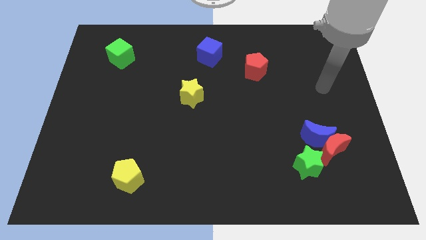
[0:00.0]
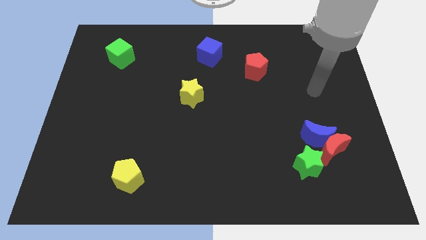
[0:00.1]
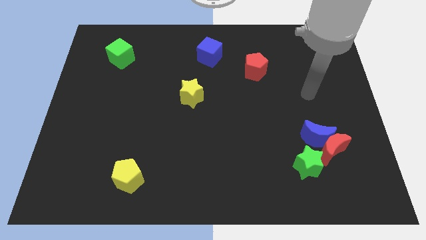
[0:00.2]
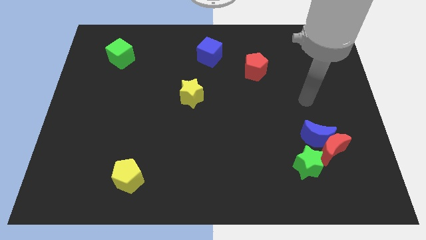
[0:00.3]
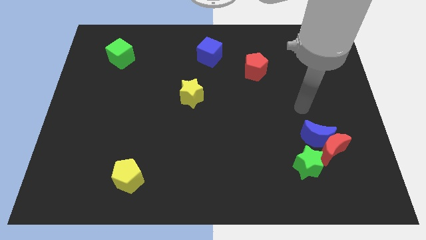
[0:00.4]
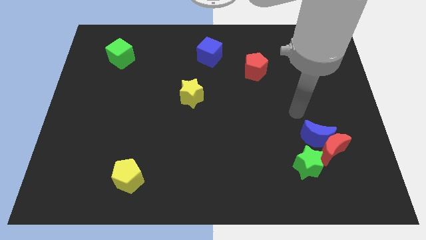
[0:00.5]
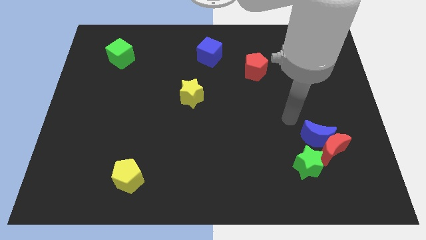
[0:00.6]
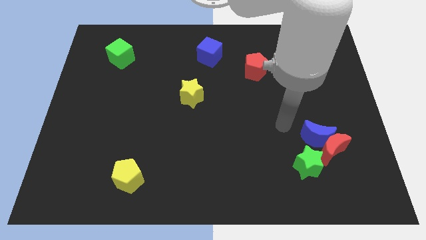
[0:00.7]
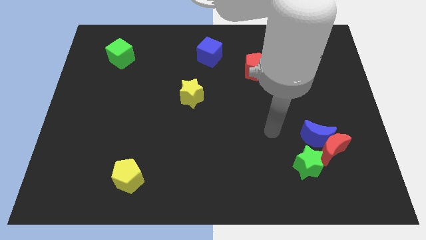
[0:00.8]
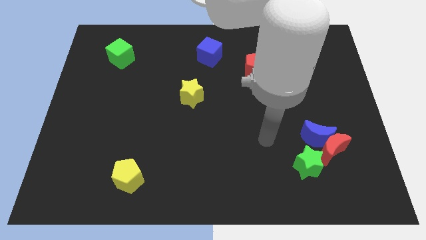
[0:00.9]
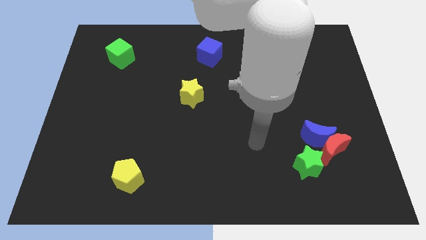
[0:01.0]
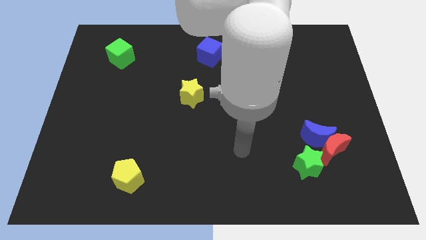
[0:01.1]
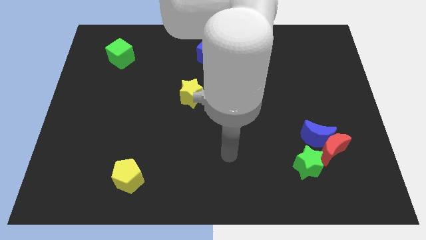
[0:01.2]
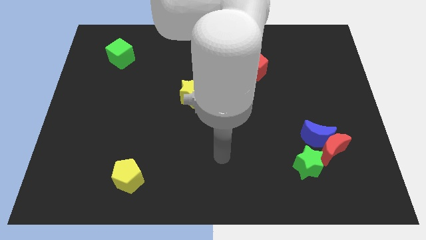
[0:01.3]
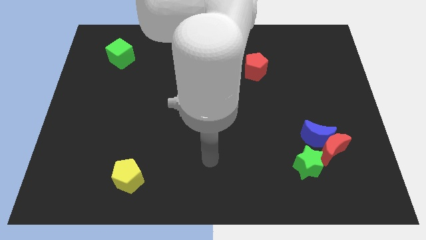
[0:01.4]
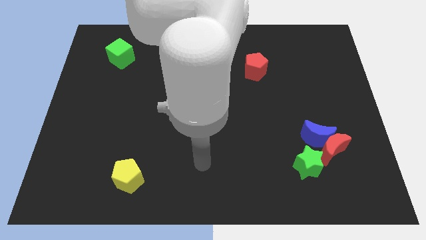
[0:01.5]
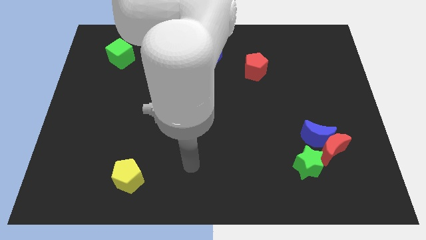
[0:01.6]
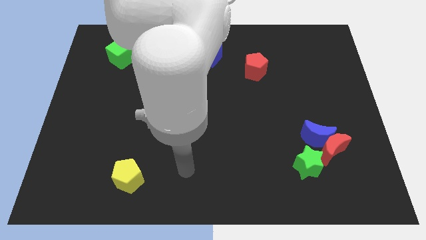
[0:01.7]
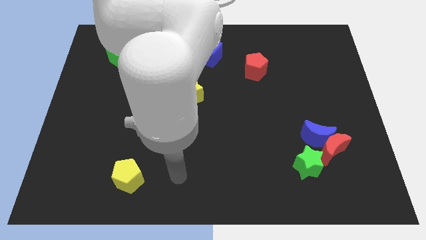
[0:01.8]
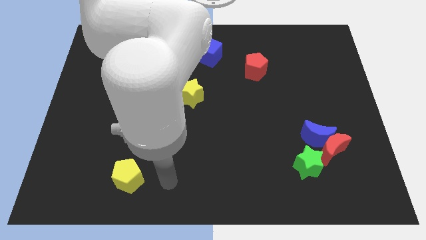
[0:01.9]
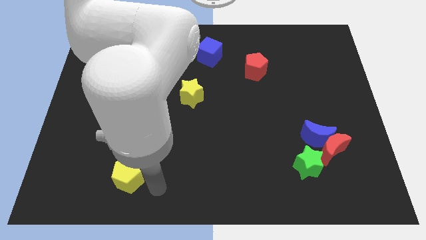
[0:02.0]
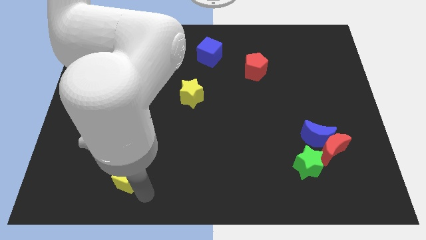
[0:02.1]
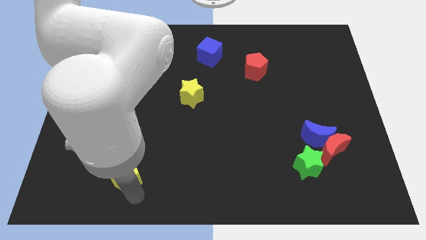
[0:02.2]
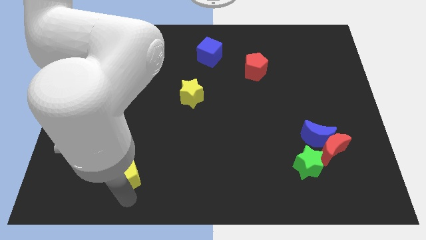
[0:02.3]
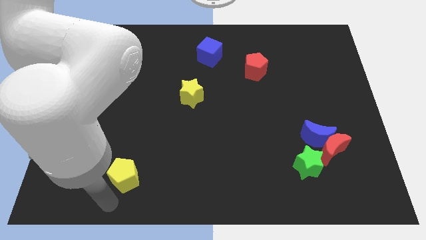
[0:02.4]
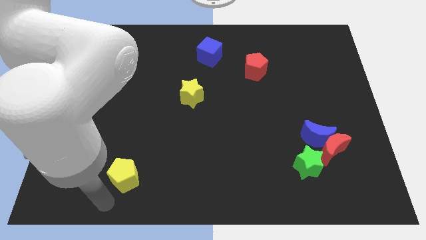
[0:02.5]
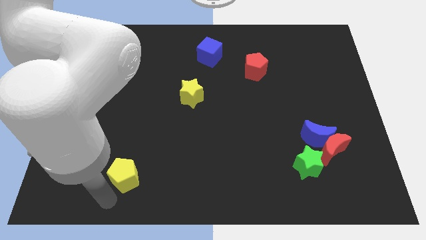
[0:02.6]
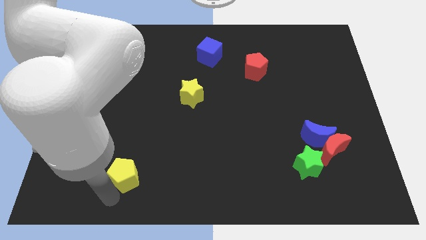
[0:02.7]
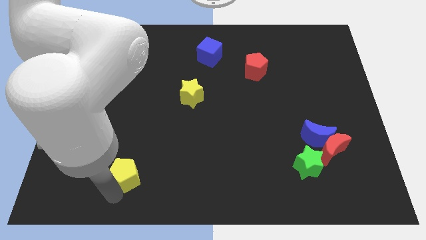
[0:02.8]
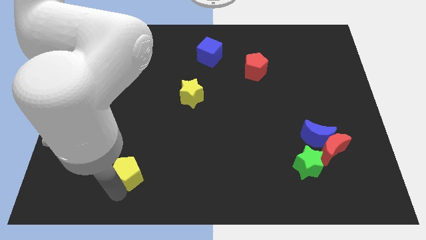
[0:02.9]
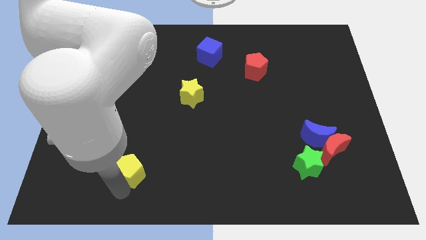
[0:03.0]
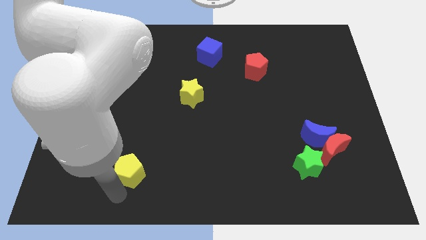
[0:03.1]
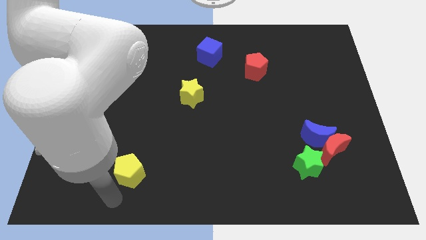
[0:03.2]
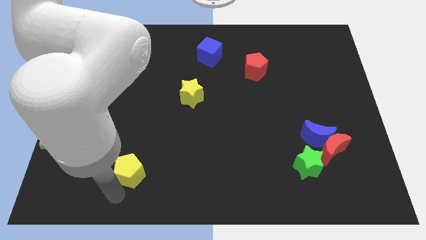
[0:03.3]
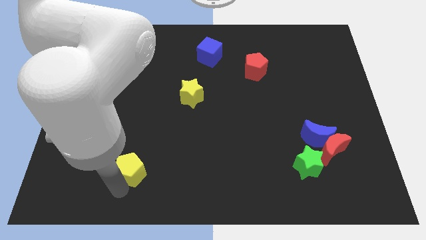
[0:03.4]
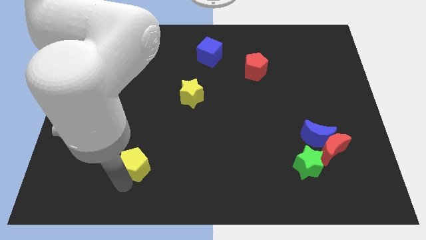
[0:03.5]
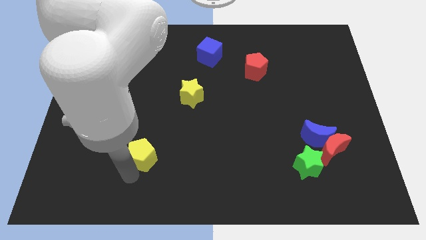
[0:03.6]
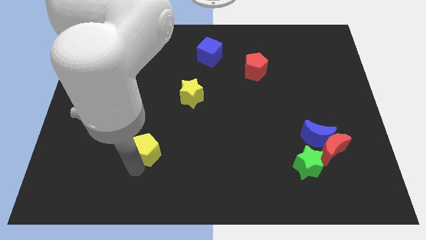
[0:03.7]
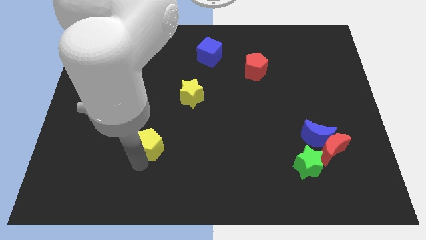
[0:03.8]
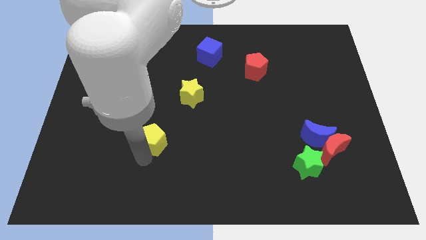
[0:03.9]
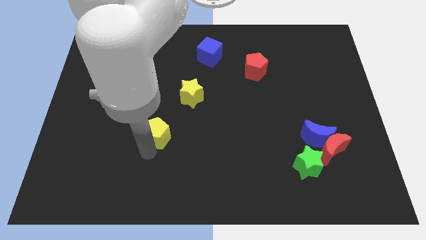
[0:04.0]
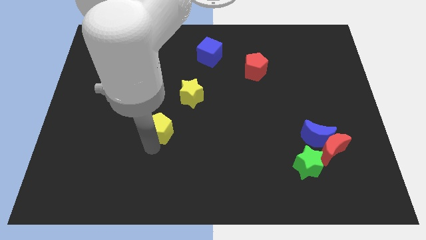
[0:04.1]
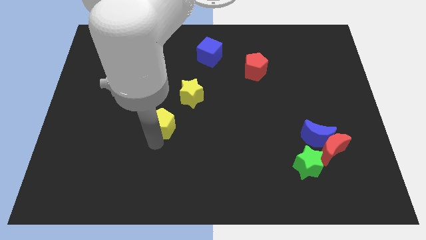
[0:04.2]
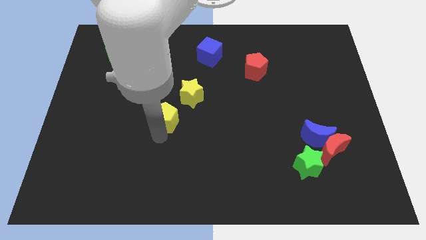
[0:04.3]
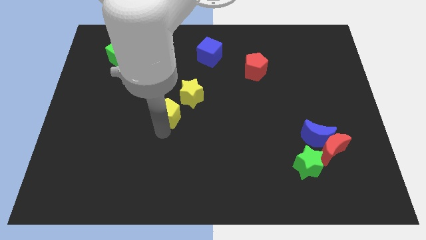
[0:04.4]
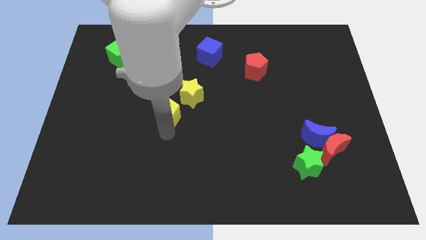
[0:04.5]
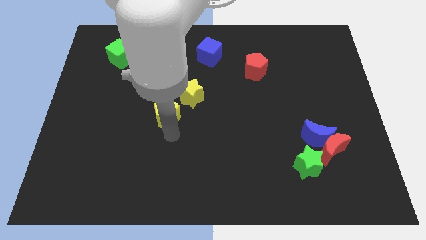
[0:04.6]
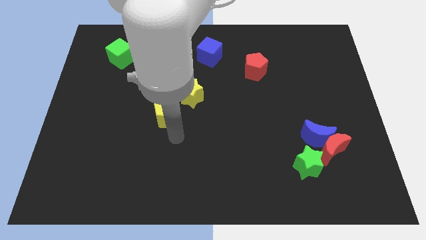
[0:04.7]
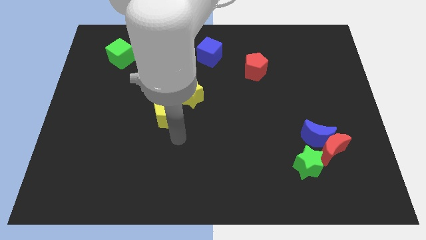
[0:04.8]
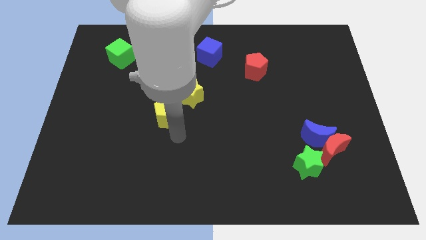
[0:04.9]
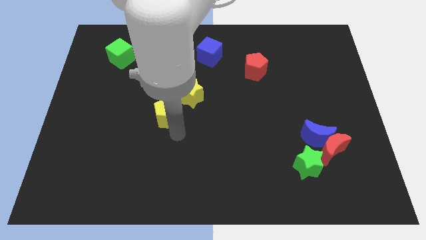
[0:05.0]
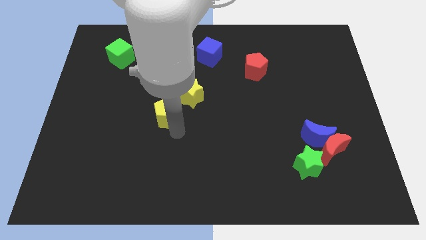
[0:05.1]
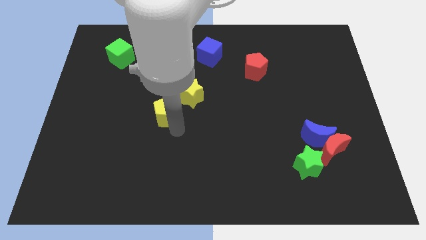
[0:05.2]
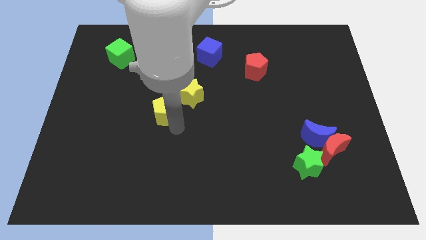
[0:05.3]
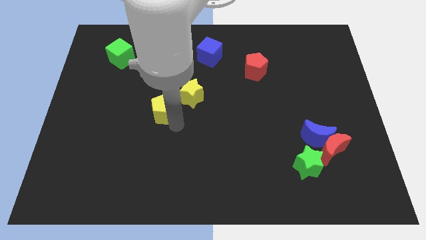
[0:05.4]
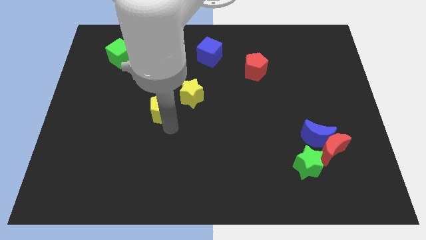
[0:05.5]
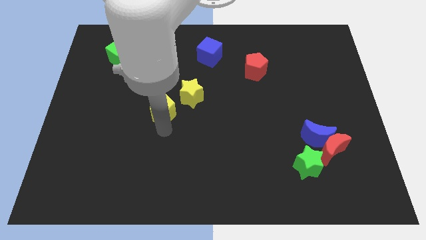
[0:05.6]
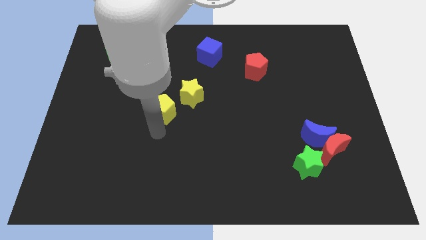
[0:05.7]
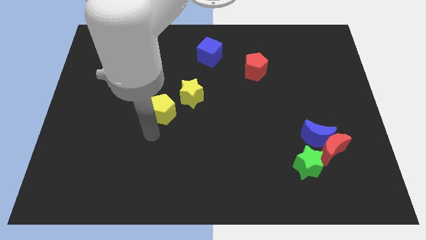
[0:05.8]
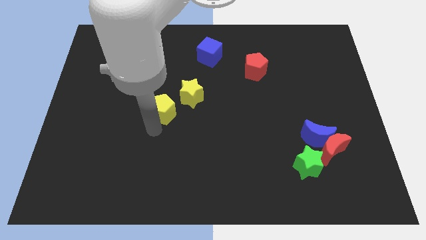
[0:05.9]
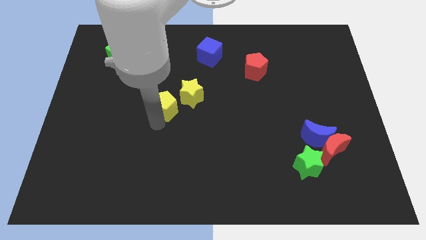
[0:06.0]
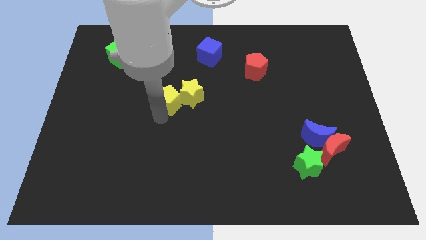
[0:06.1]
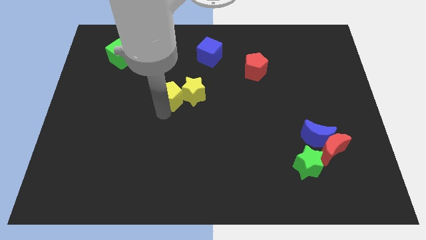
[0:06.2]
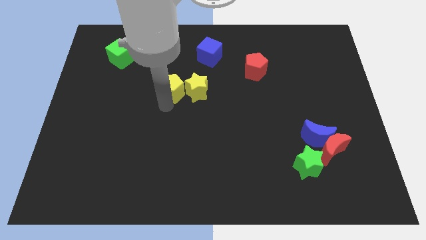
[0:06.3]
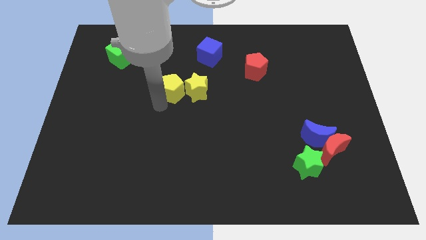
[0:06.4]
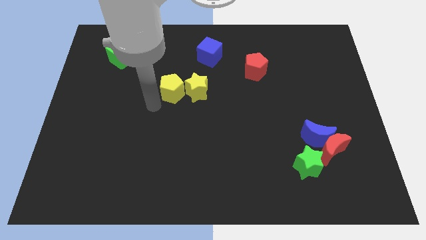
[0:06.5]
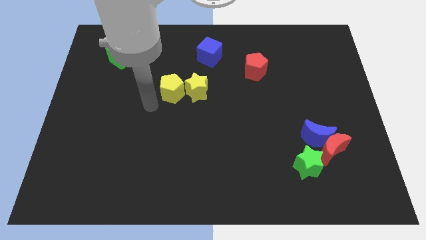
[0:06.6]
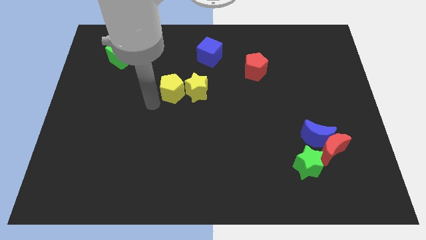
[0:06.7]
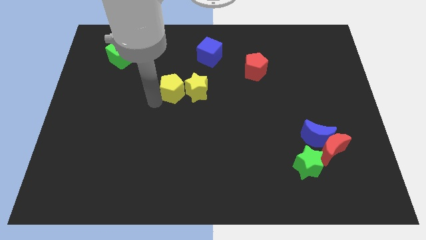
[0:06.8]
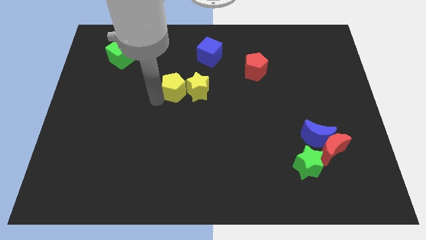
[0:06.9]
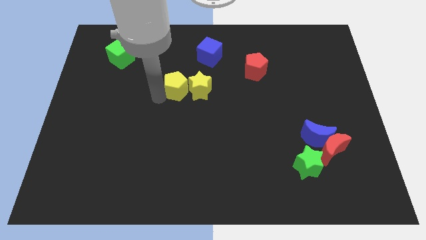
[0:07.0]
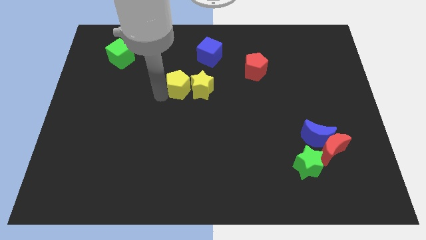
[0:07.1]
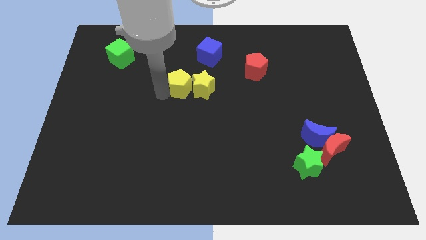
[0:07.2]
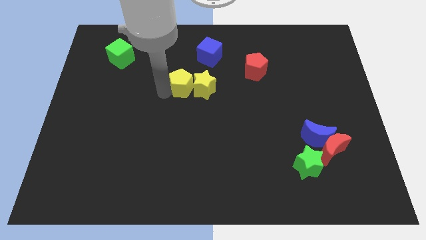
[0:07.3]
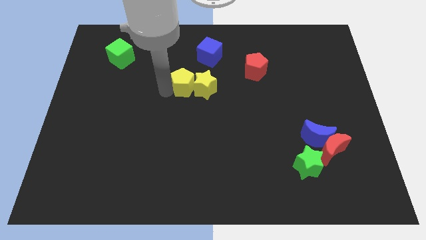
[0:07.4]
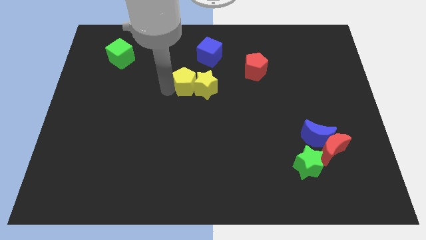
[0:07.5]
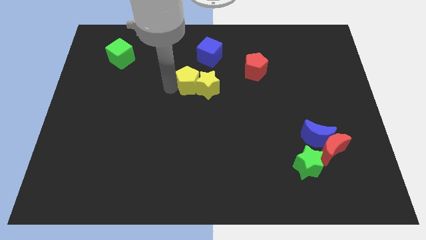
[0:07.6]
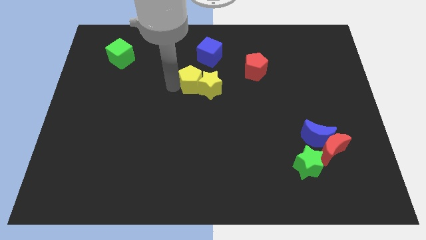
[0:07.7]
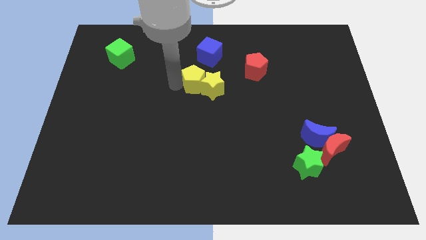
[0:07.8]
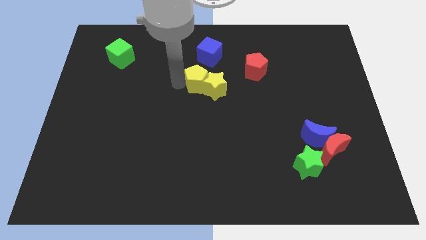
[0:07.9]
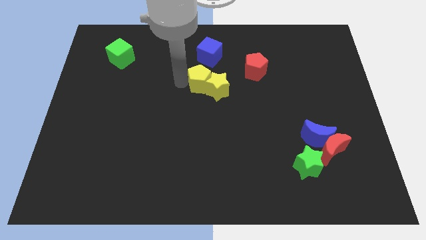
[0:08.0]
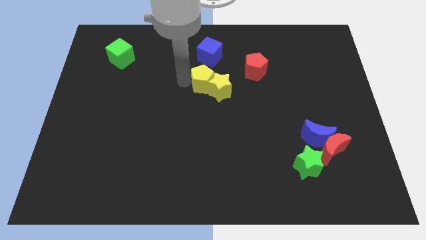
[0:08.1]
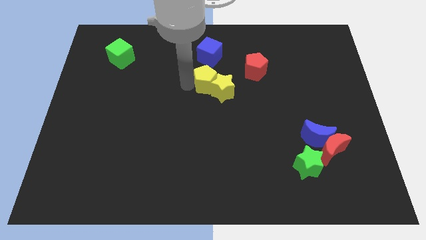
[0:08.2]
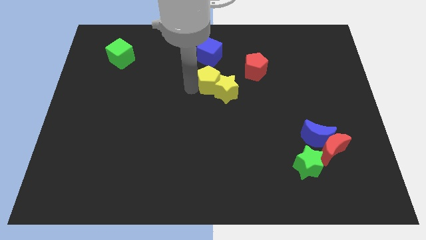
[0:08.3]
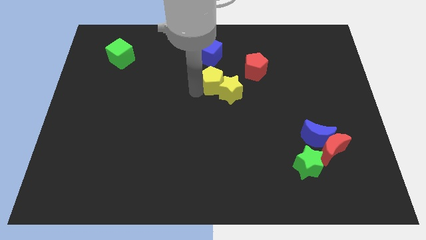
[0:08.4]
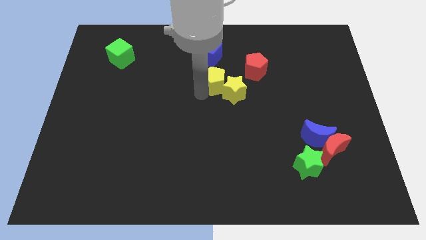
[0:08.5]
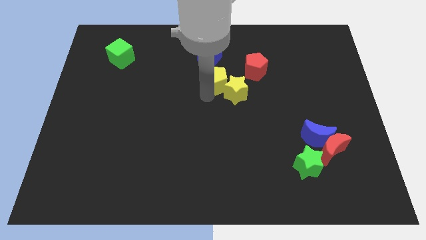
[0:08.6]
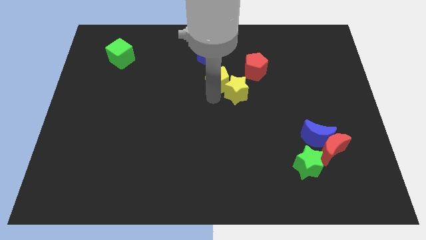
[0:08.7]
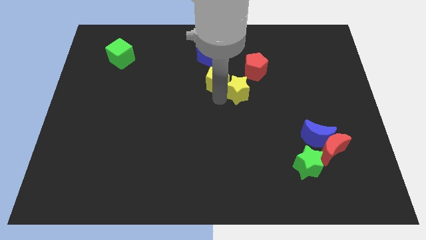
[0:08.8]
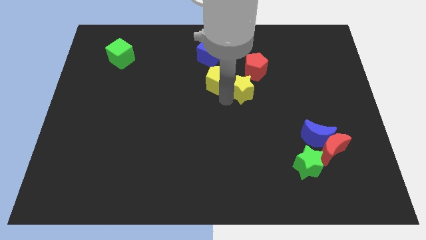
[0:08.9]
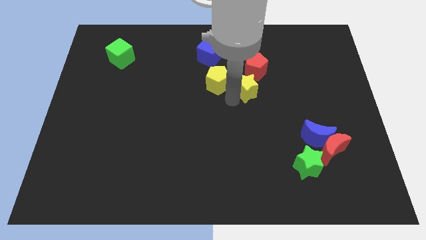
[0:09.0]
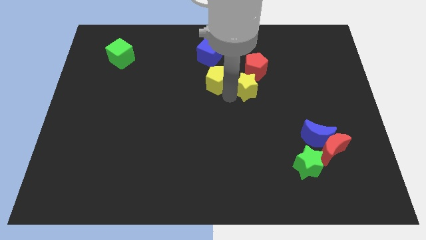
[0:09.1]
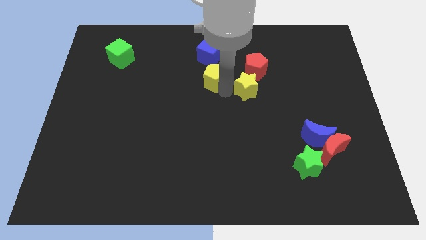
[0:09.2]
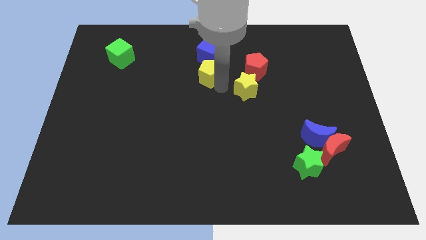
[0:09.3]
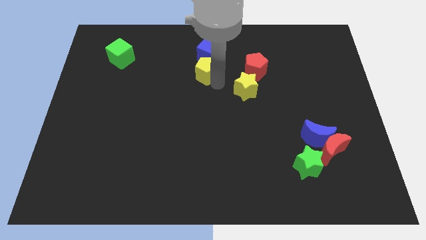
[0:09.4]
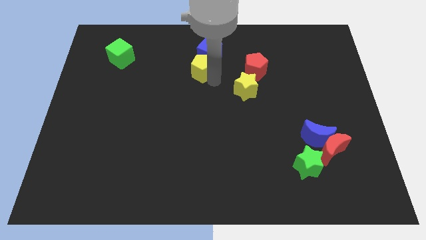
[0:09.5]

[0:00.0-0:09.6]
move the yellow pentagon next to the blue cube
